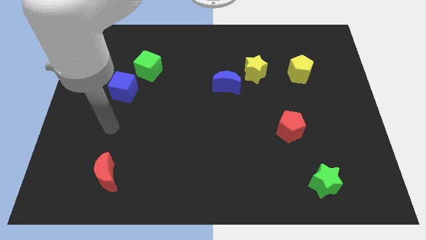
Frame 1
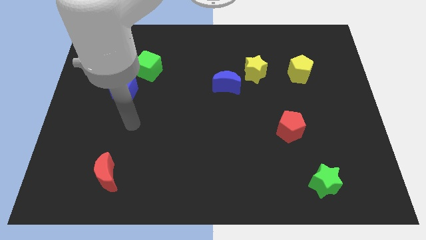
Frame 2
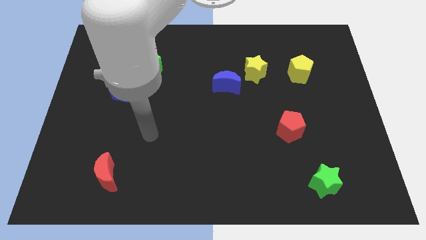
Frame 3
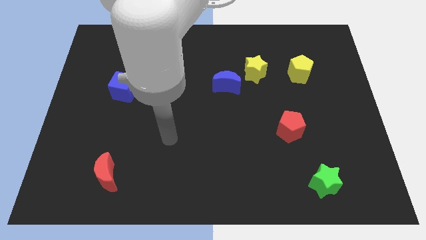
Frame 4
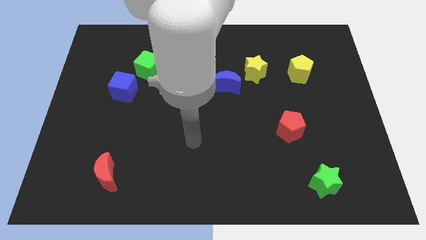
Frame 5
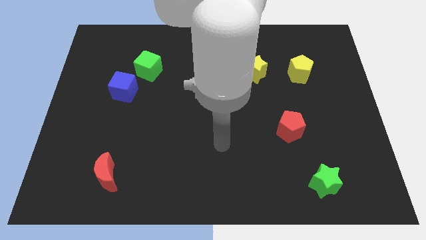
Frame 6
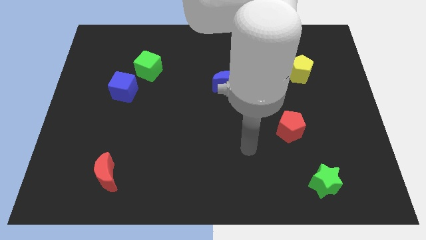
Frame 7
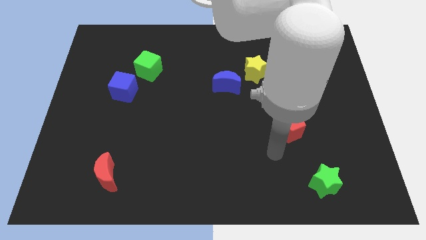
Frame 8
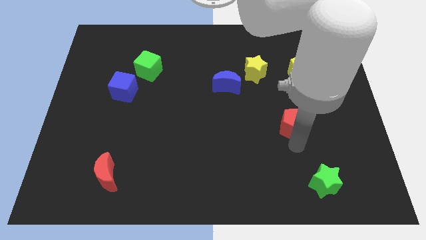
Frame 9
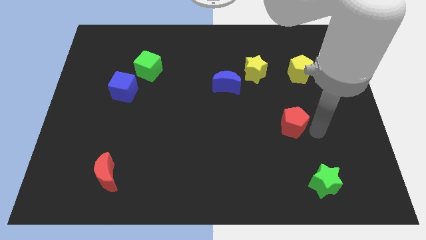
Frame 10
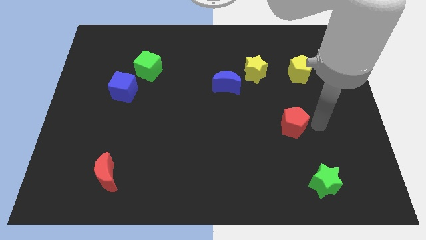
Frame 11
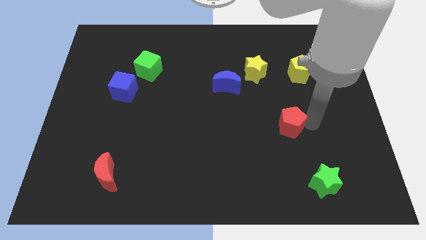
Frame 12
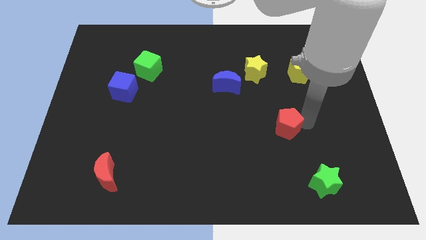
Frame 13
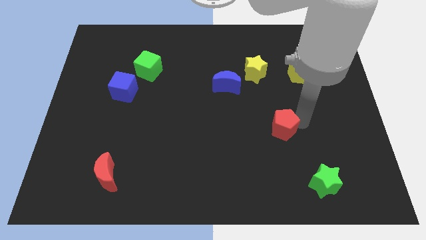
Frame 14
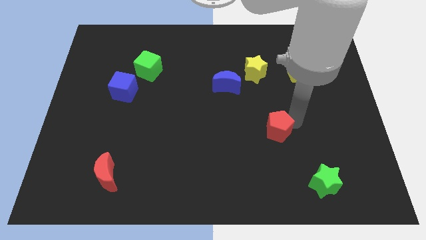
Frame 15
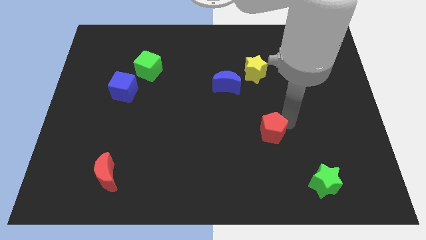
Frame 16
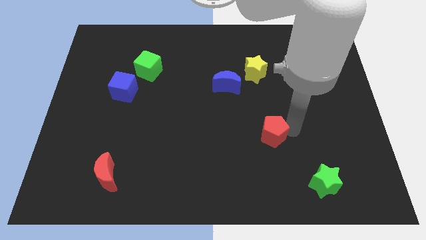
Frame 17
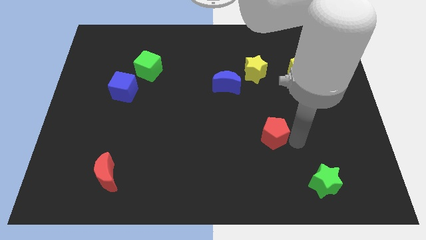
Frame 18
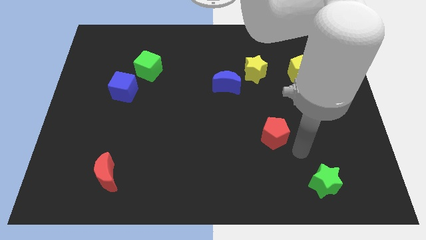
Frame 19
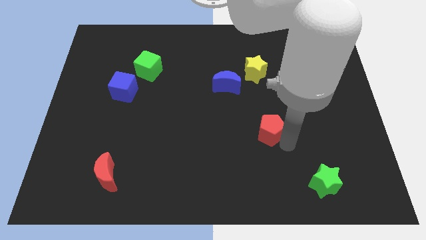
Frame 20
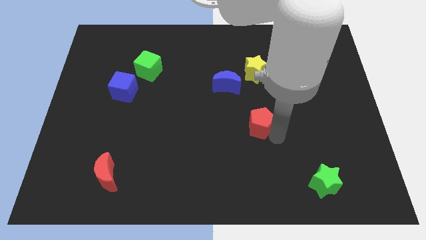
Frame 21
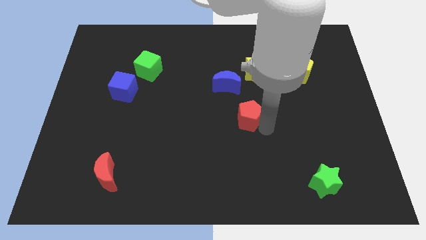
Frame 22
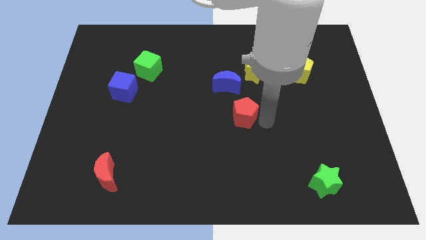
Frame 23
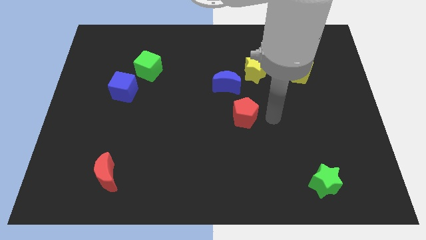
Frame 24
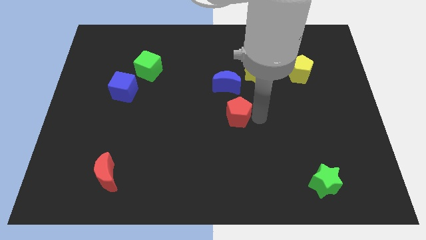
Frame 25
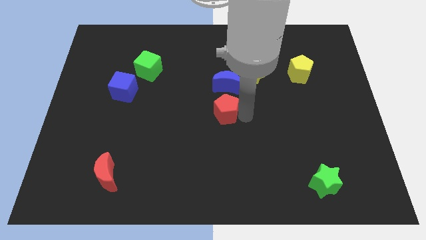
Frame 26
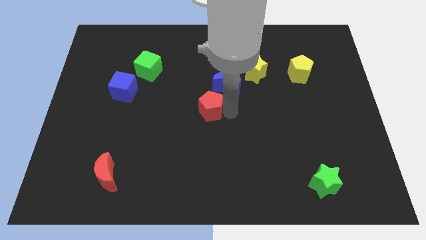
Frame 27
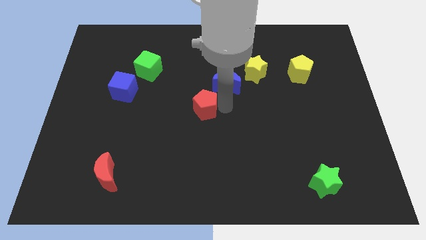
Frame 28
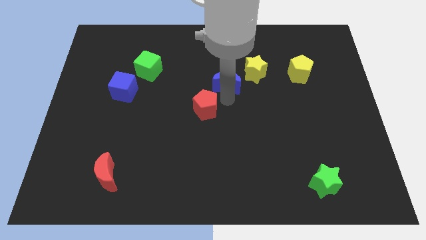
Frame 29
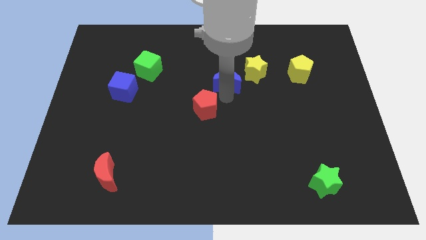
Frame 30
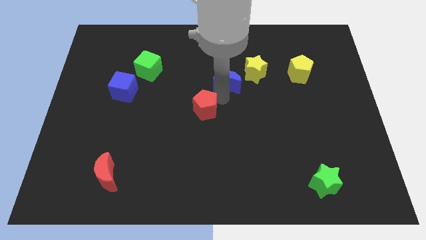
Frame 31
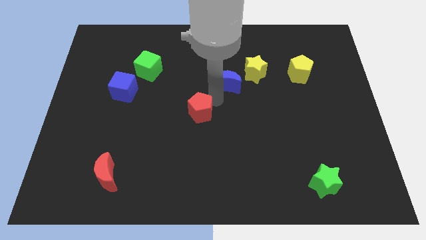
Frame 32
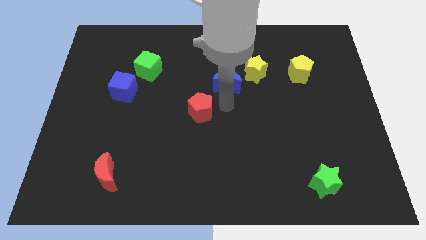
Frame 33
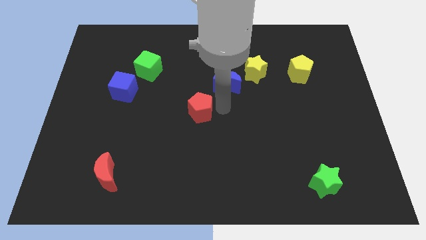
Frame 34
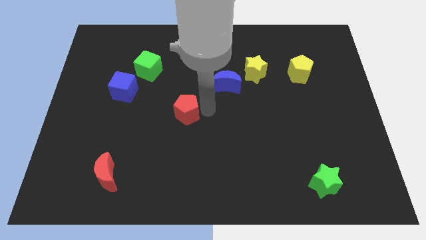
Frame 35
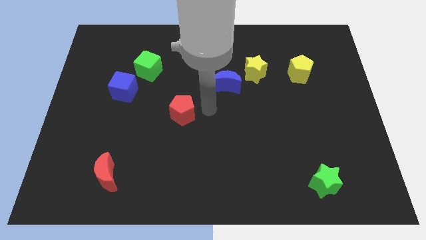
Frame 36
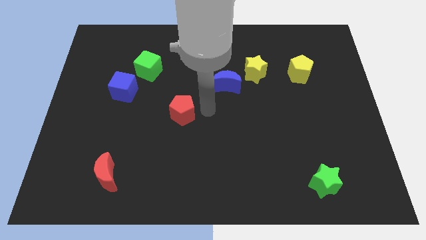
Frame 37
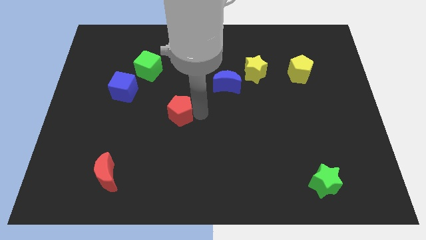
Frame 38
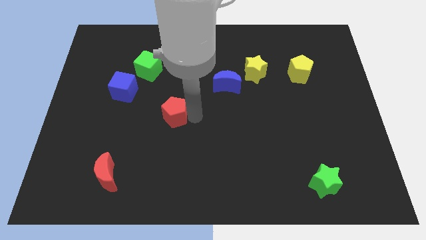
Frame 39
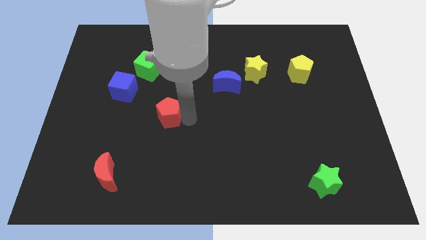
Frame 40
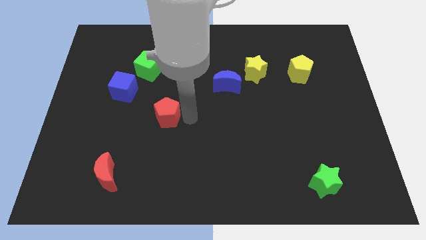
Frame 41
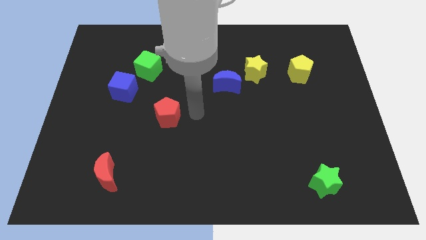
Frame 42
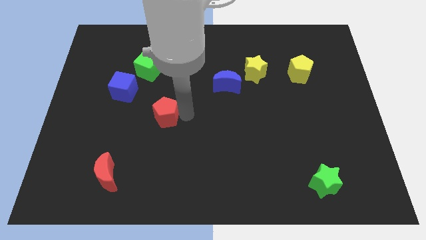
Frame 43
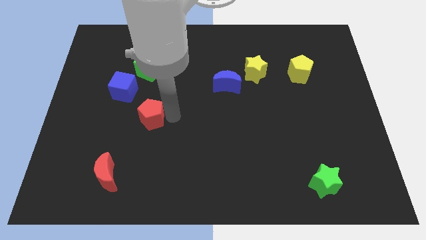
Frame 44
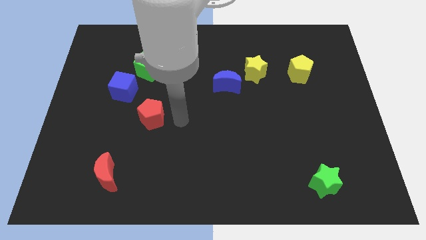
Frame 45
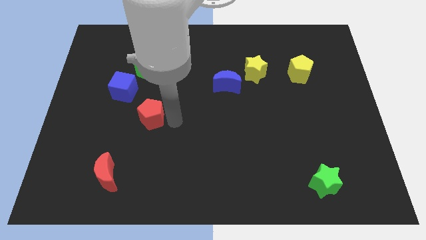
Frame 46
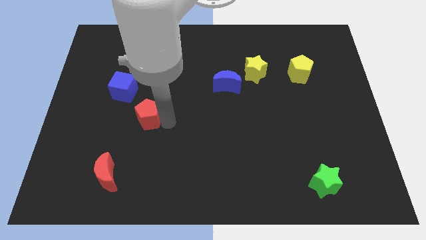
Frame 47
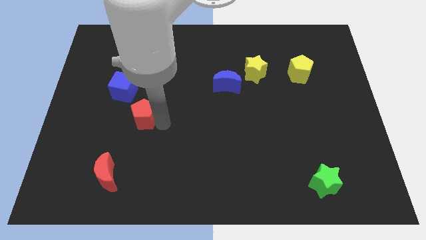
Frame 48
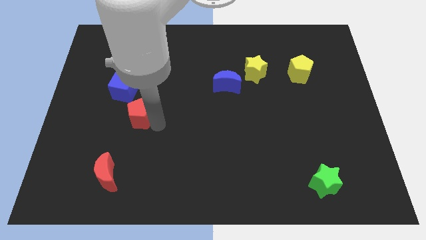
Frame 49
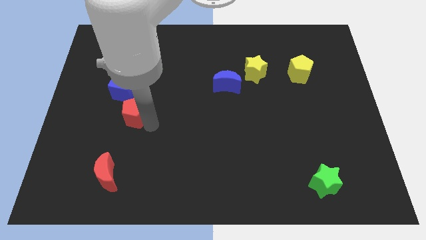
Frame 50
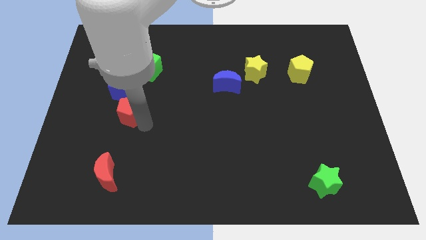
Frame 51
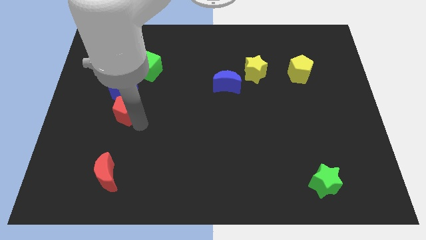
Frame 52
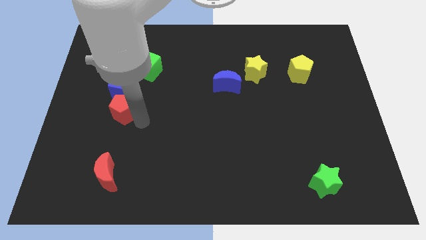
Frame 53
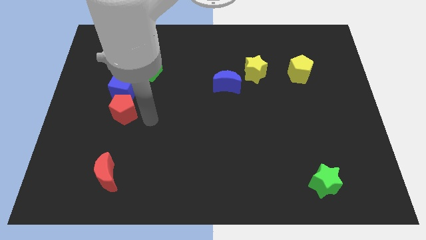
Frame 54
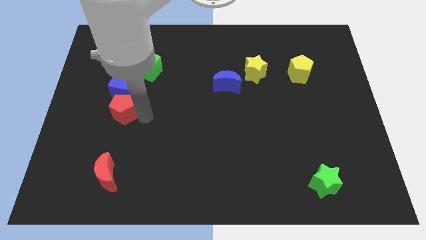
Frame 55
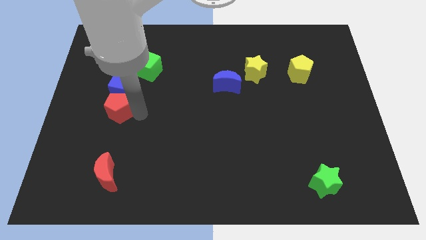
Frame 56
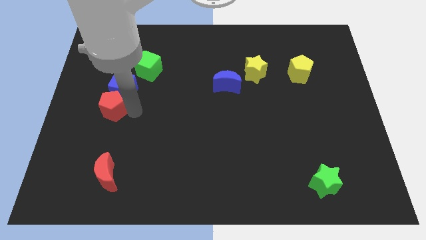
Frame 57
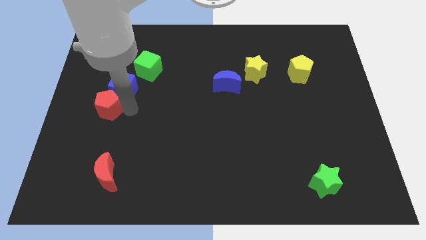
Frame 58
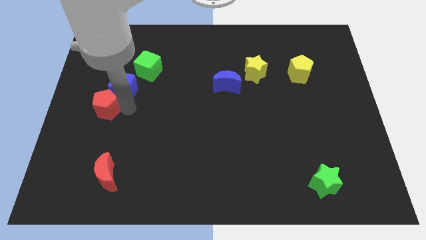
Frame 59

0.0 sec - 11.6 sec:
move the red pentagon to the center left

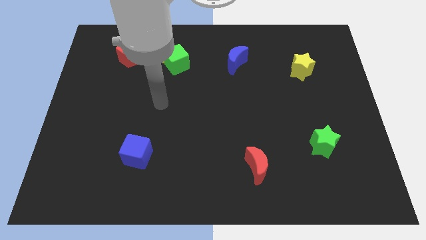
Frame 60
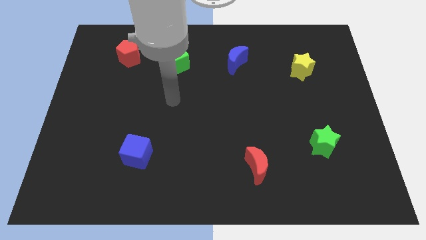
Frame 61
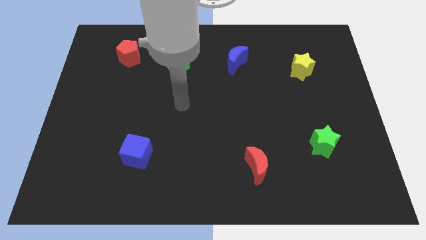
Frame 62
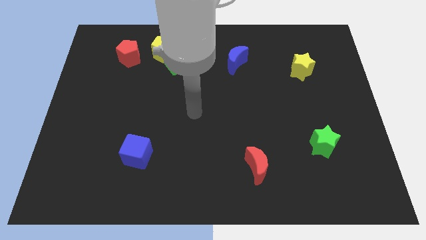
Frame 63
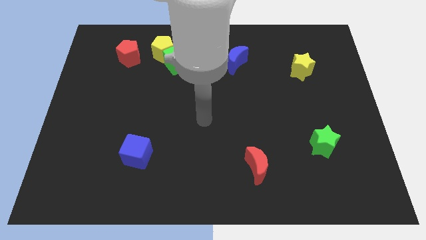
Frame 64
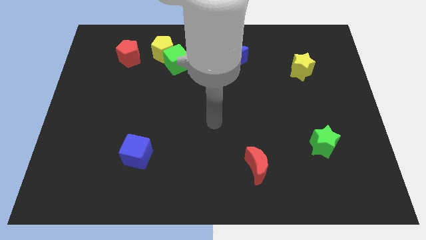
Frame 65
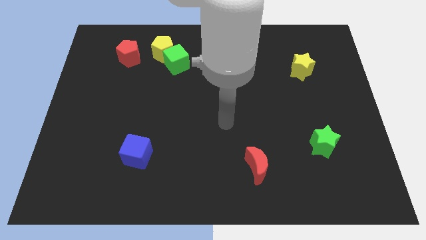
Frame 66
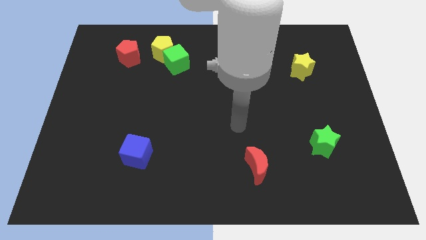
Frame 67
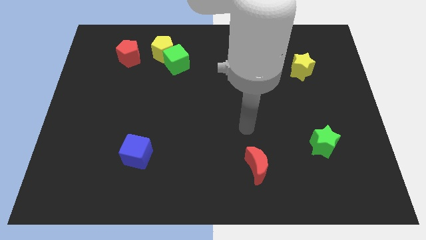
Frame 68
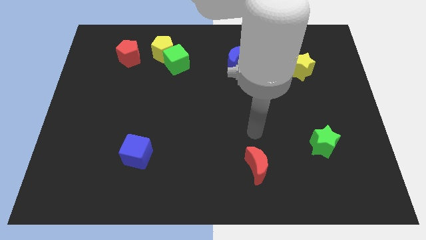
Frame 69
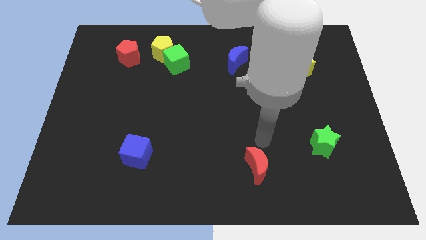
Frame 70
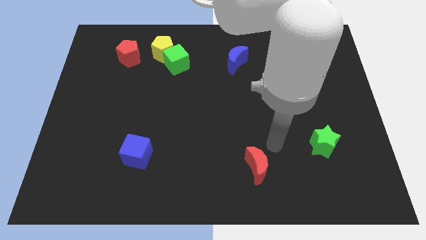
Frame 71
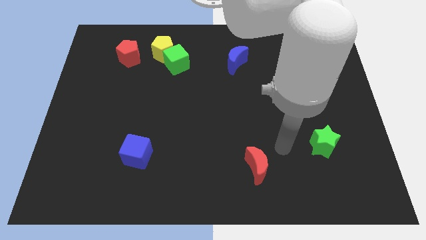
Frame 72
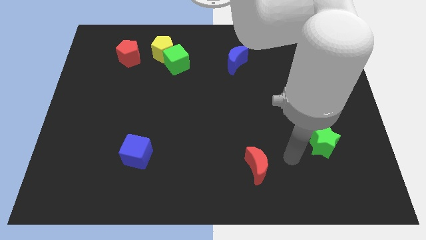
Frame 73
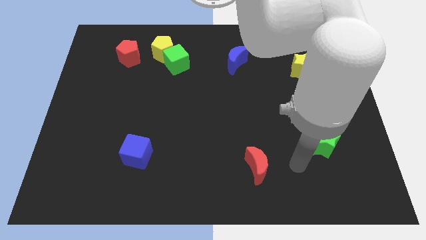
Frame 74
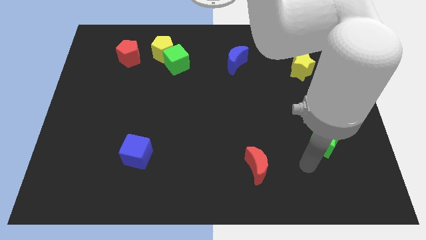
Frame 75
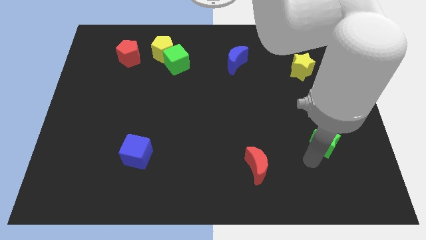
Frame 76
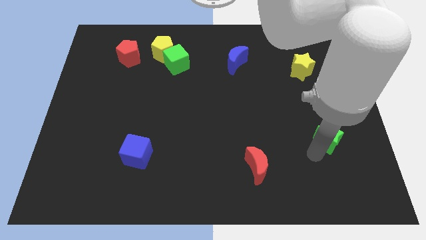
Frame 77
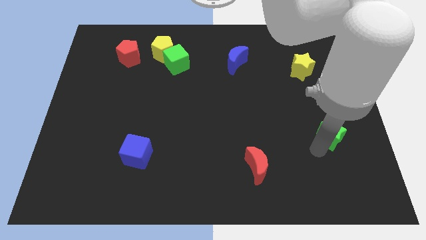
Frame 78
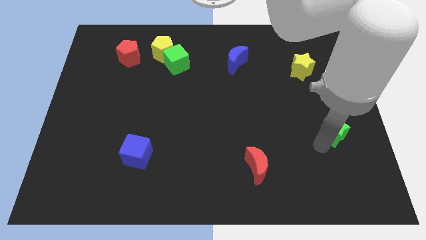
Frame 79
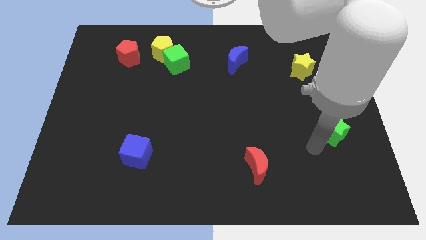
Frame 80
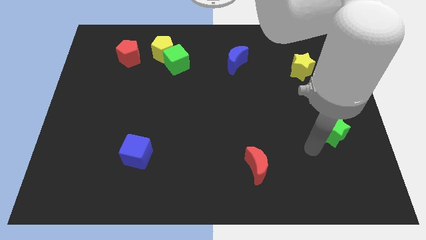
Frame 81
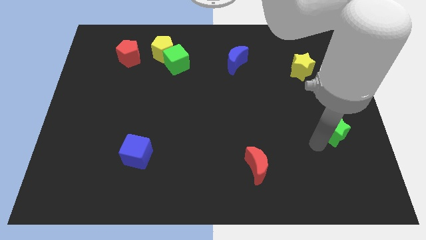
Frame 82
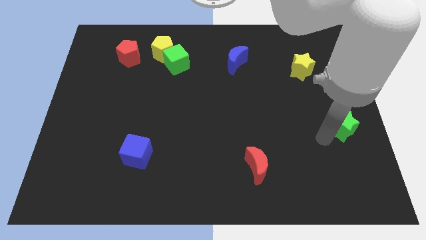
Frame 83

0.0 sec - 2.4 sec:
push the green star to the right side

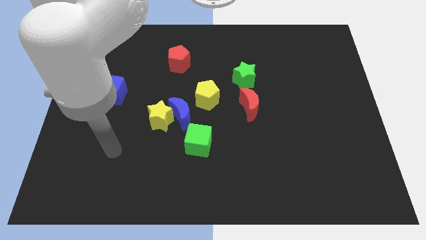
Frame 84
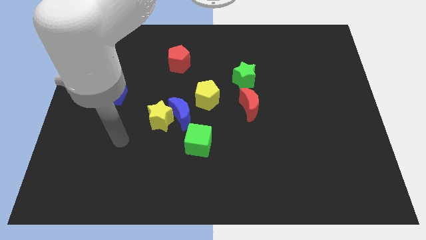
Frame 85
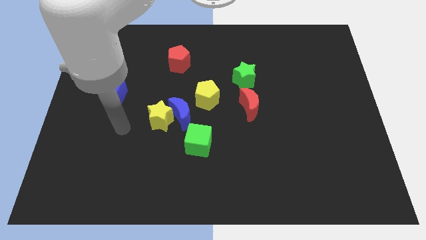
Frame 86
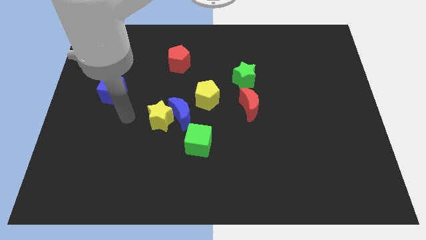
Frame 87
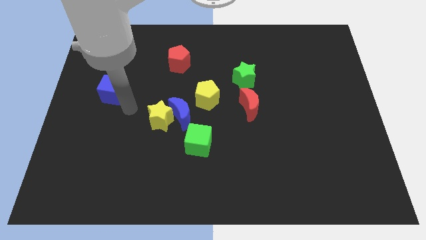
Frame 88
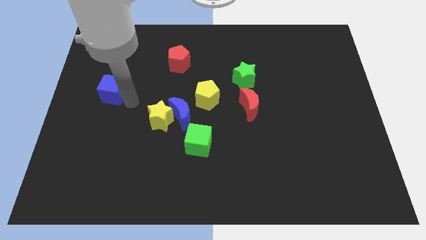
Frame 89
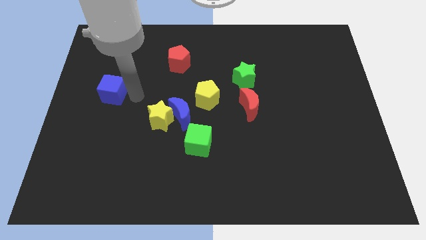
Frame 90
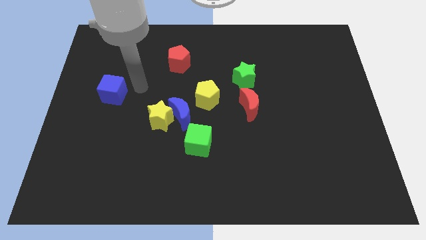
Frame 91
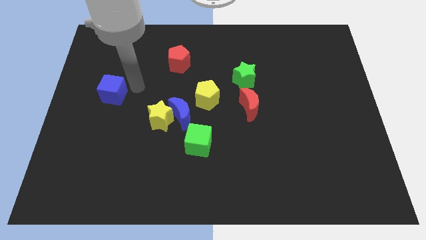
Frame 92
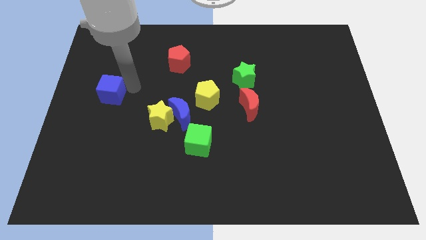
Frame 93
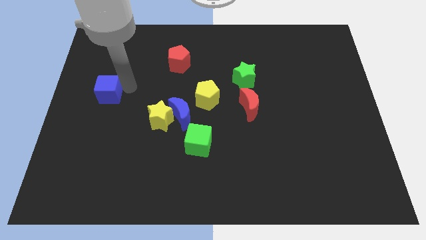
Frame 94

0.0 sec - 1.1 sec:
slide the blue cube to the left side of the board
